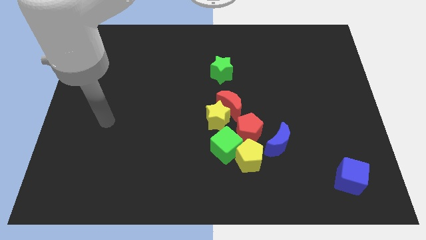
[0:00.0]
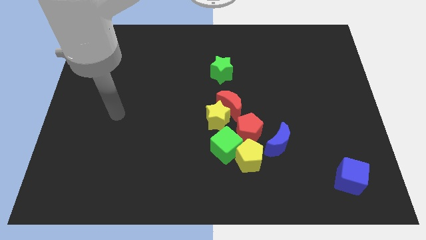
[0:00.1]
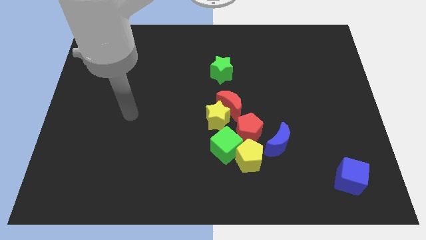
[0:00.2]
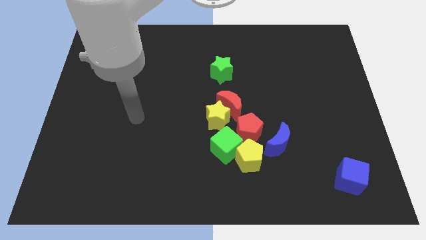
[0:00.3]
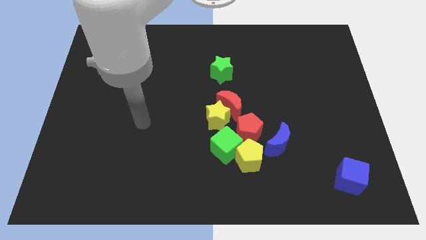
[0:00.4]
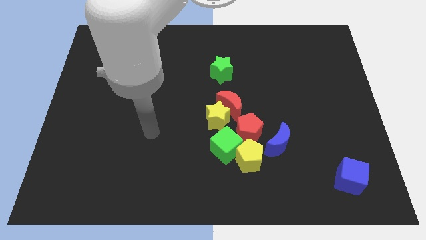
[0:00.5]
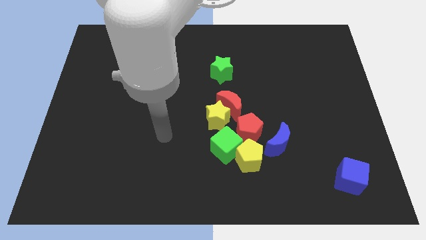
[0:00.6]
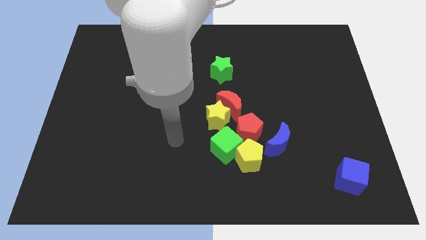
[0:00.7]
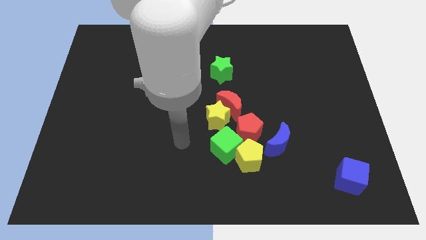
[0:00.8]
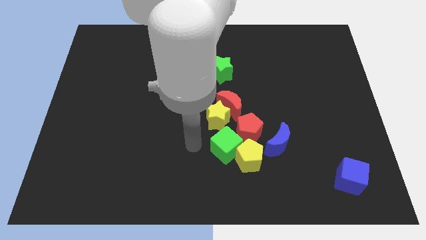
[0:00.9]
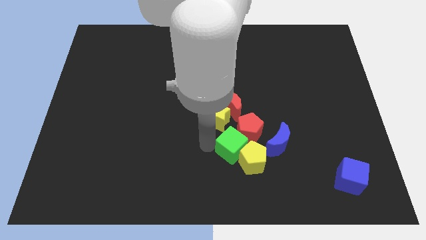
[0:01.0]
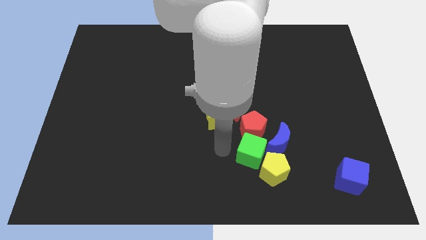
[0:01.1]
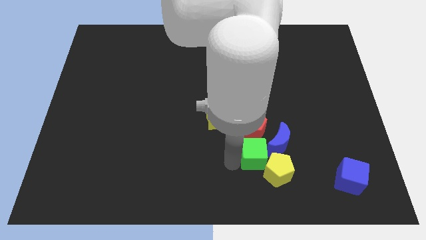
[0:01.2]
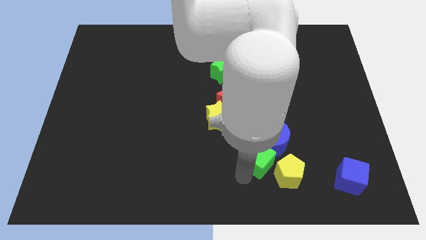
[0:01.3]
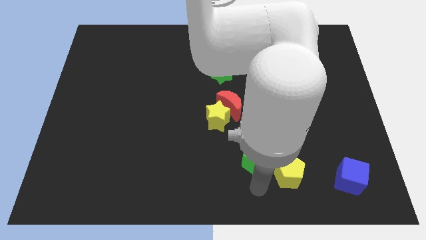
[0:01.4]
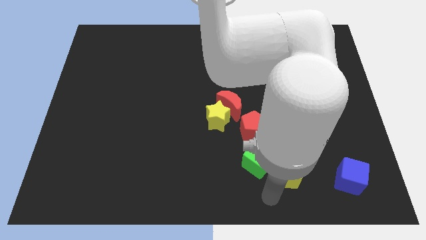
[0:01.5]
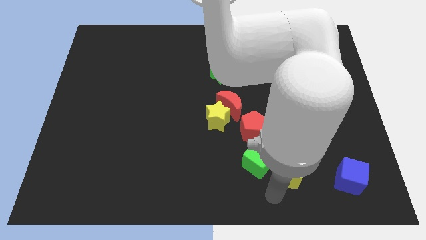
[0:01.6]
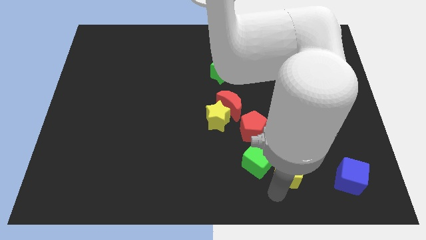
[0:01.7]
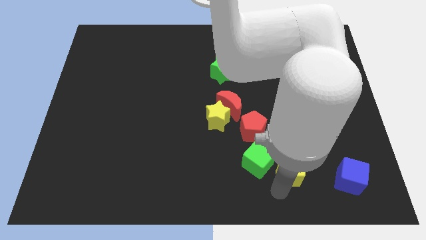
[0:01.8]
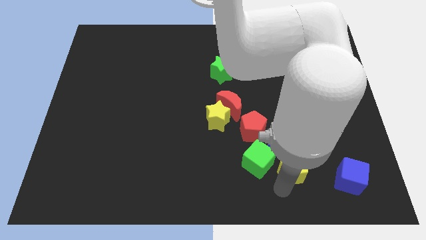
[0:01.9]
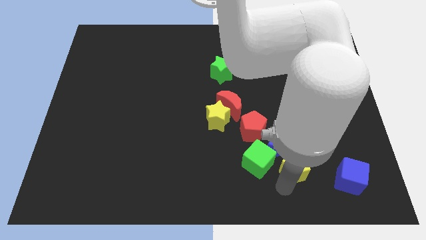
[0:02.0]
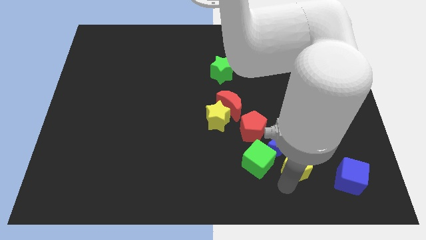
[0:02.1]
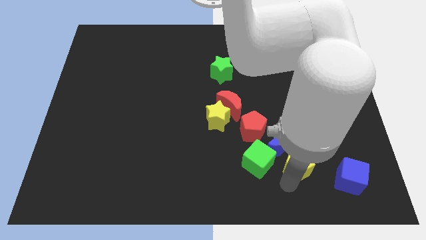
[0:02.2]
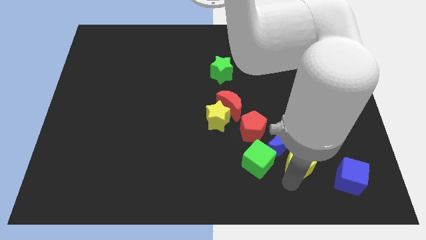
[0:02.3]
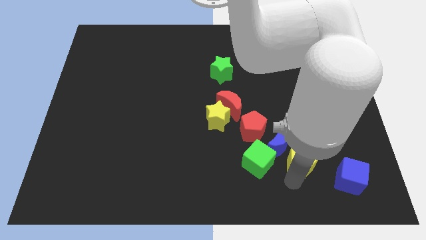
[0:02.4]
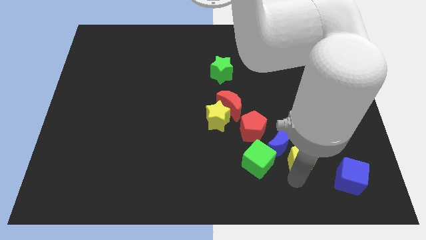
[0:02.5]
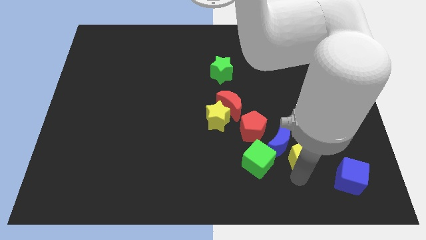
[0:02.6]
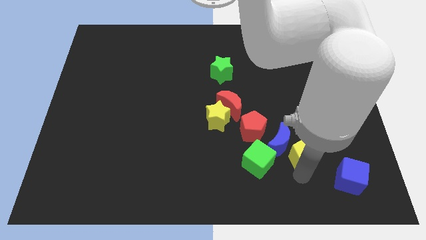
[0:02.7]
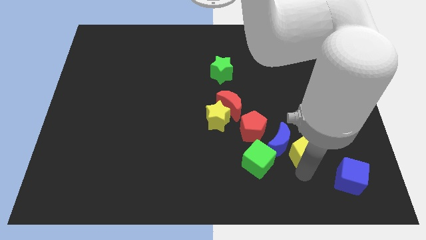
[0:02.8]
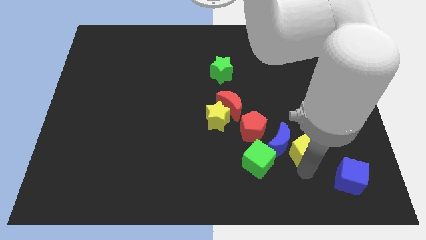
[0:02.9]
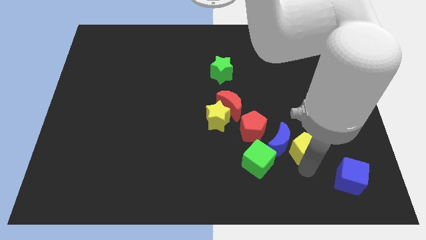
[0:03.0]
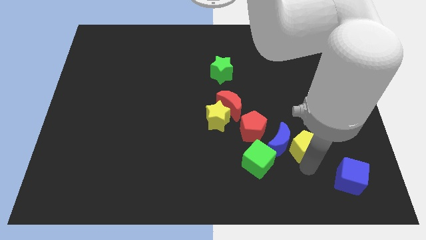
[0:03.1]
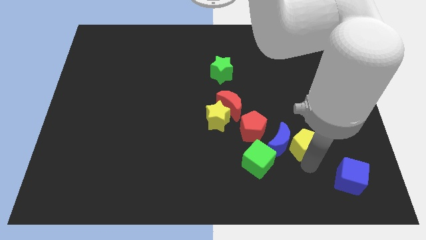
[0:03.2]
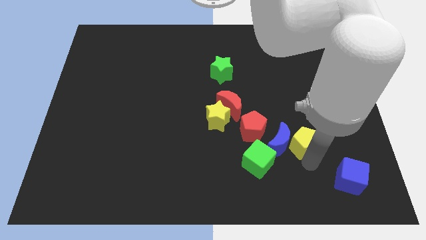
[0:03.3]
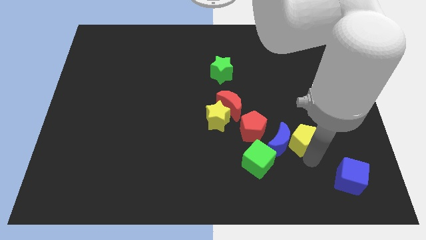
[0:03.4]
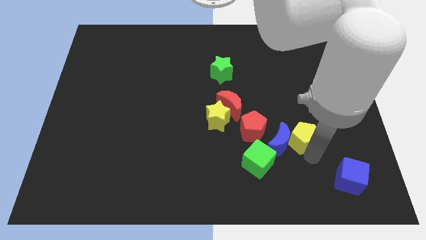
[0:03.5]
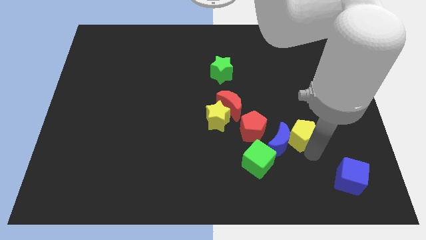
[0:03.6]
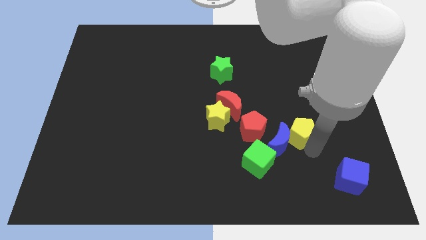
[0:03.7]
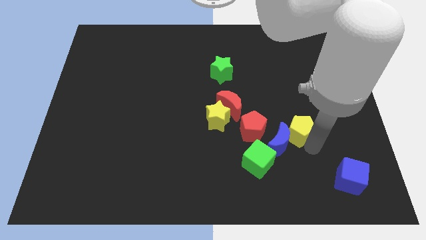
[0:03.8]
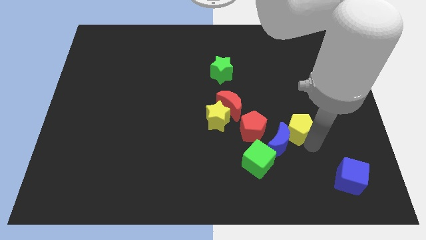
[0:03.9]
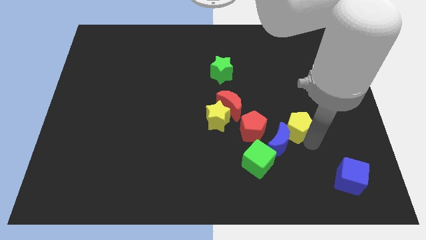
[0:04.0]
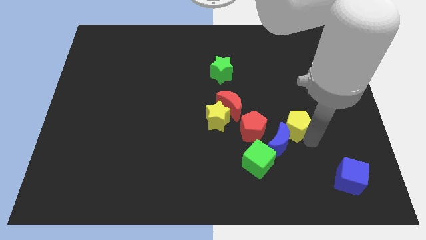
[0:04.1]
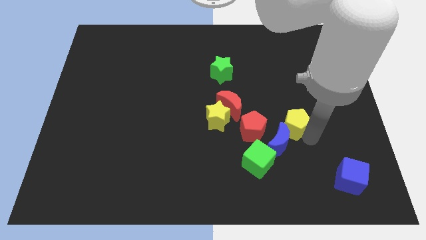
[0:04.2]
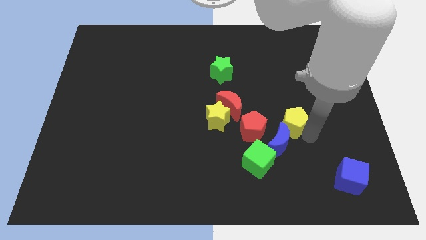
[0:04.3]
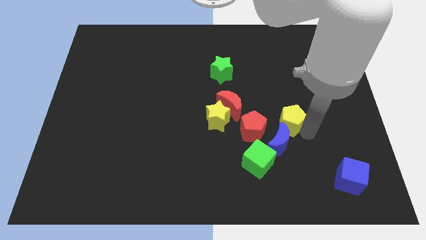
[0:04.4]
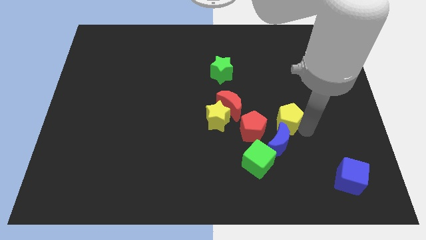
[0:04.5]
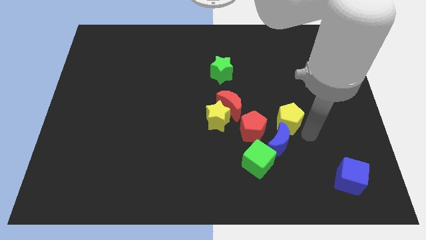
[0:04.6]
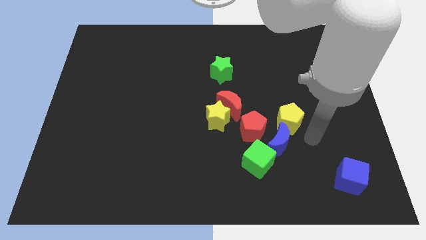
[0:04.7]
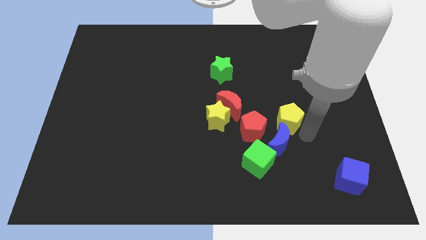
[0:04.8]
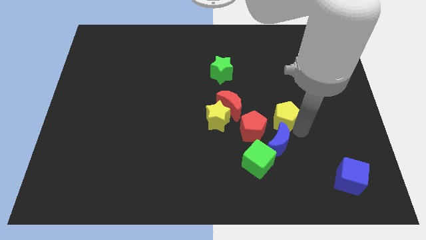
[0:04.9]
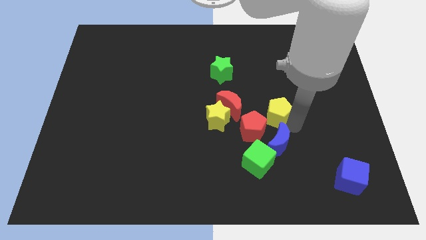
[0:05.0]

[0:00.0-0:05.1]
move the yellow pentagon slightly up

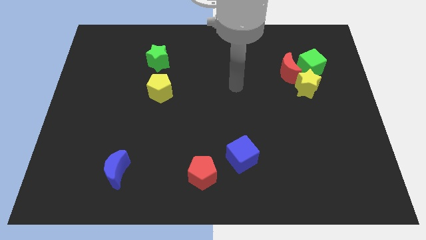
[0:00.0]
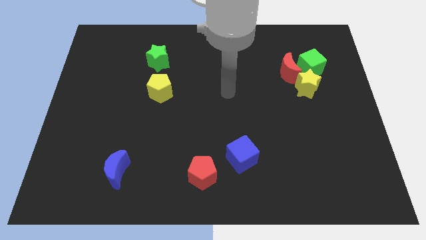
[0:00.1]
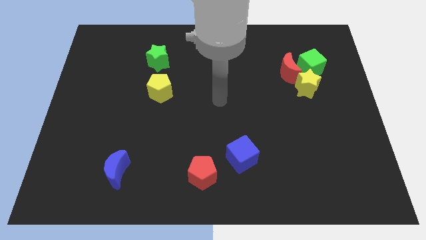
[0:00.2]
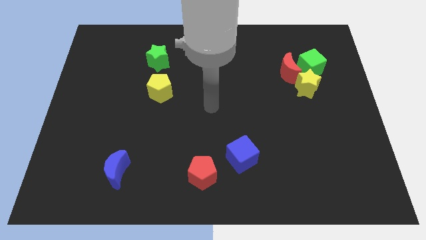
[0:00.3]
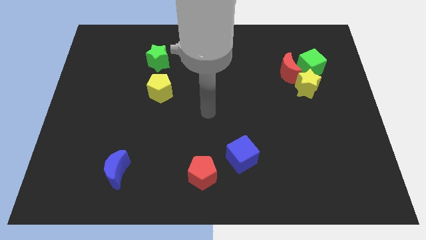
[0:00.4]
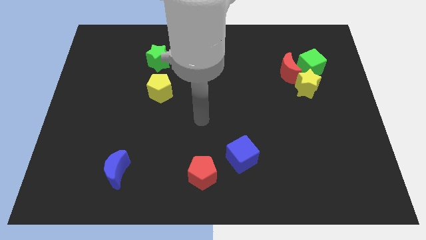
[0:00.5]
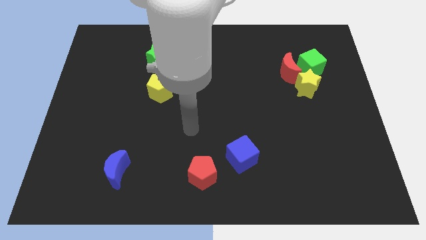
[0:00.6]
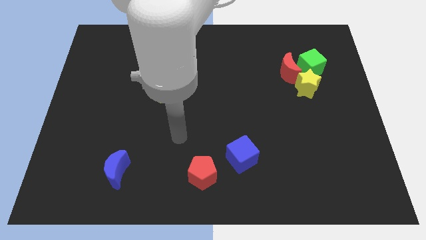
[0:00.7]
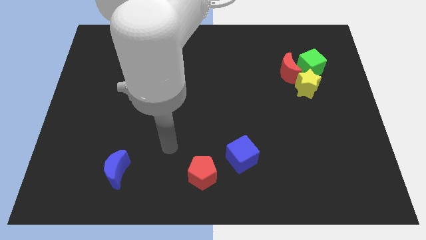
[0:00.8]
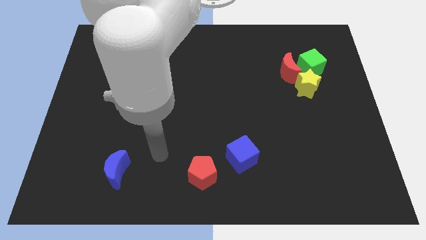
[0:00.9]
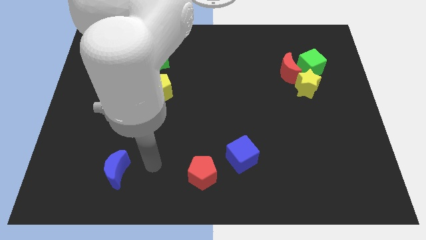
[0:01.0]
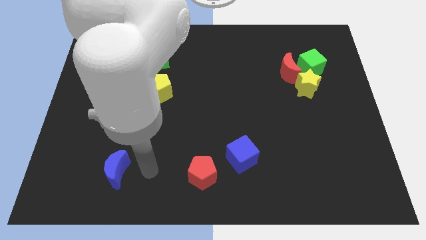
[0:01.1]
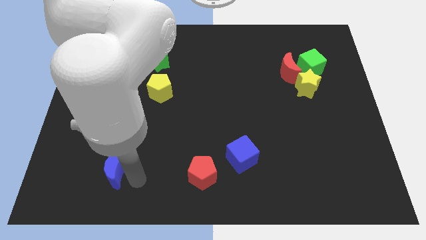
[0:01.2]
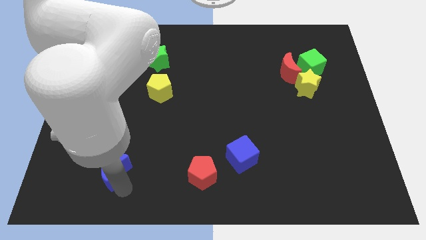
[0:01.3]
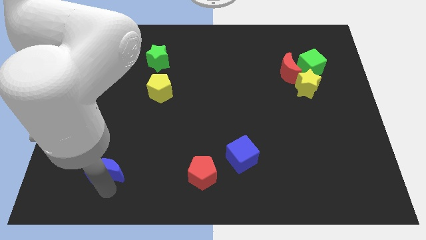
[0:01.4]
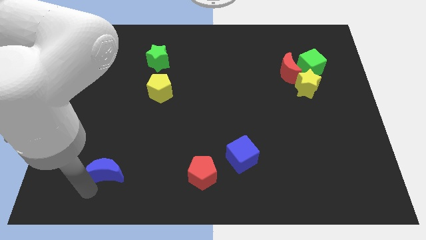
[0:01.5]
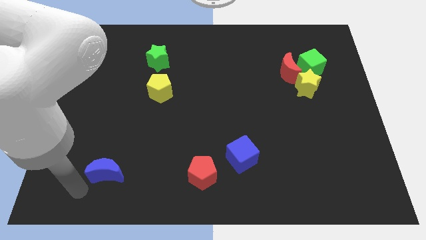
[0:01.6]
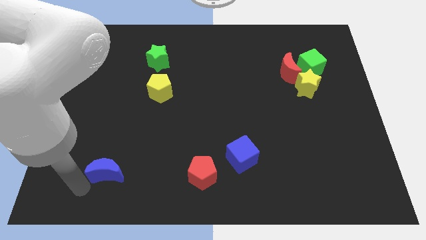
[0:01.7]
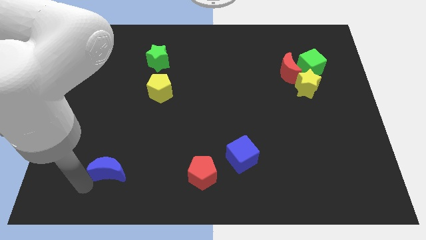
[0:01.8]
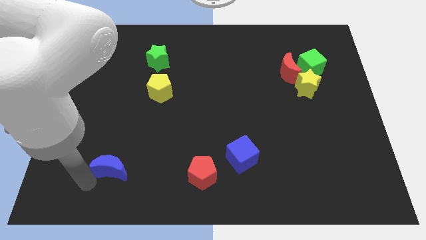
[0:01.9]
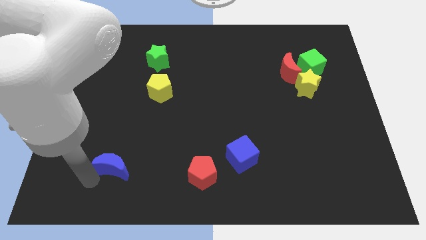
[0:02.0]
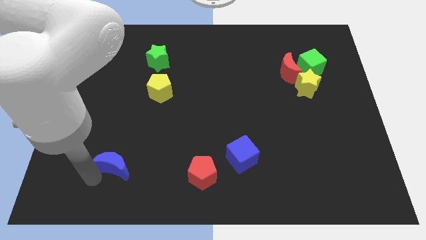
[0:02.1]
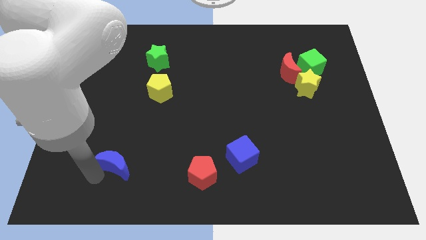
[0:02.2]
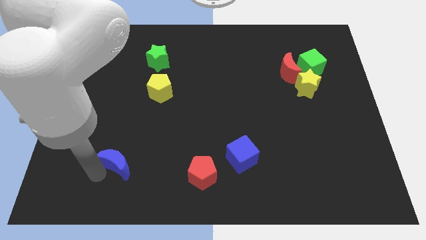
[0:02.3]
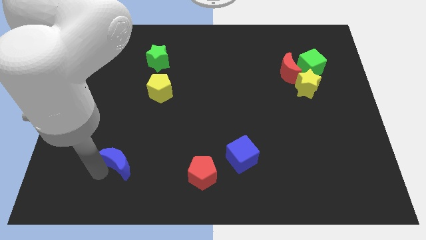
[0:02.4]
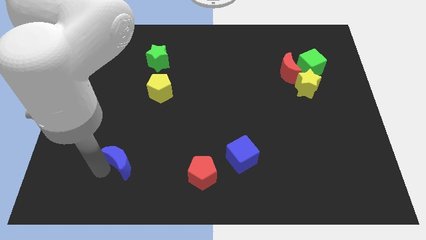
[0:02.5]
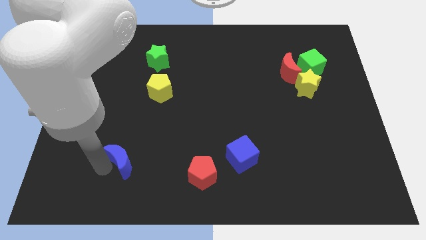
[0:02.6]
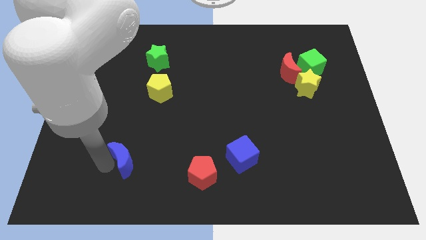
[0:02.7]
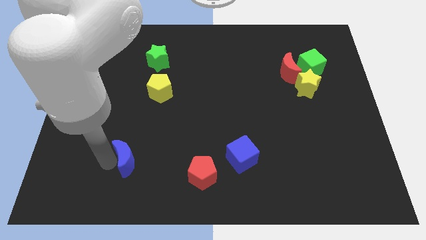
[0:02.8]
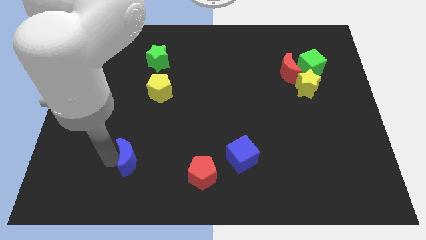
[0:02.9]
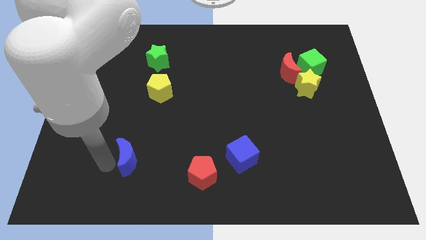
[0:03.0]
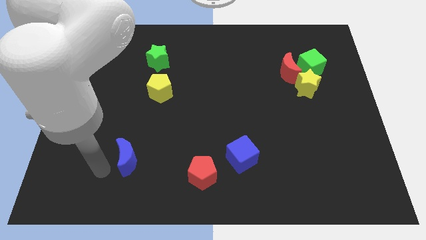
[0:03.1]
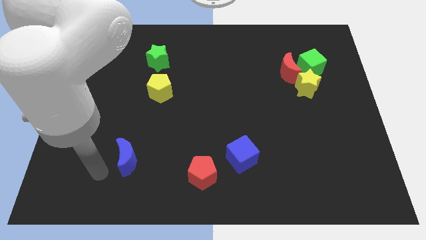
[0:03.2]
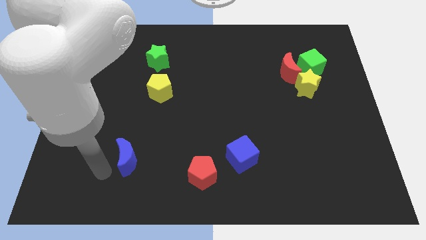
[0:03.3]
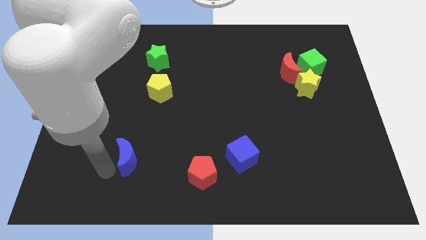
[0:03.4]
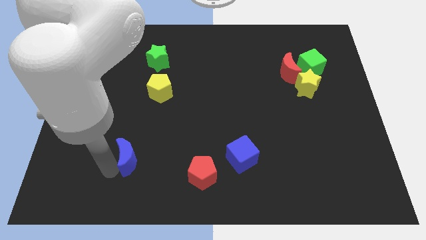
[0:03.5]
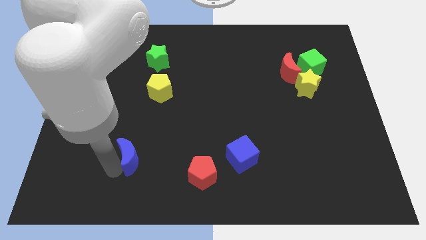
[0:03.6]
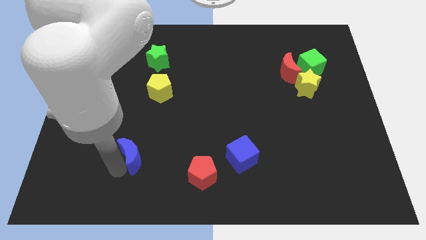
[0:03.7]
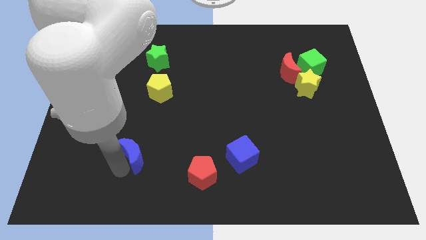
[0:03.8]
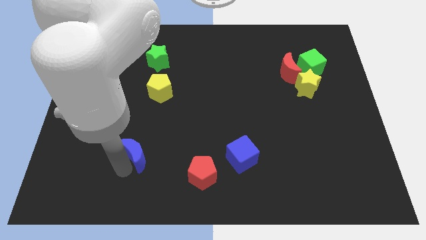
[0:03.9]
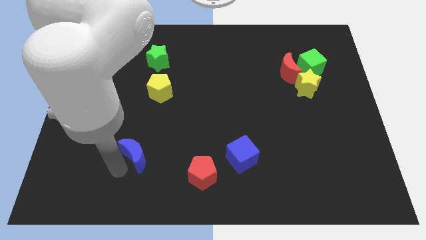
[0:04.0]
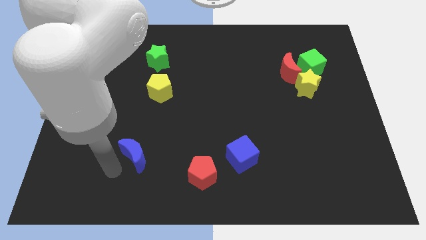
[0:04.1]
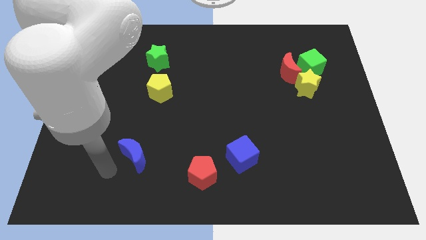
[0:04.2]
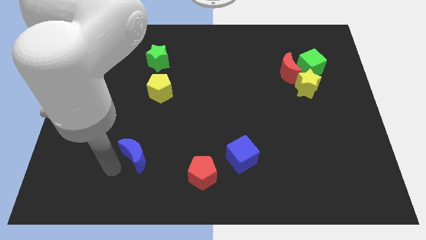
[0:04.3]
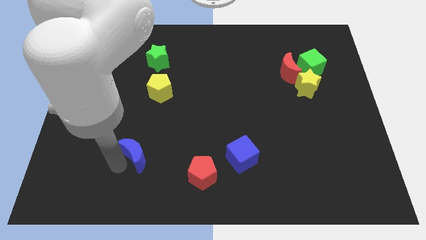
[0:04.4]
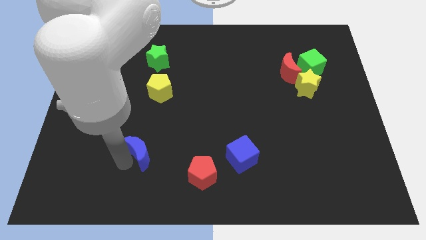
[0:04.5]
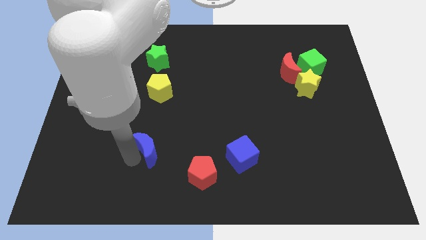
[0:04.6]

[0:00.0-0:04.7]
push the blue moon upwards and then right a little bit
